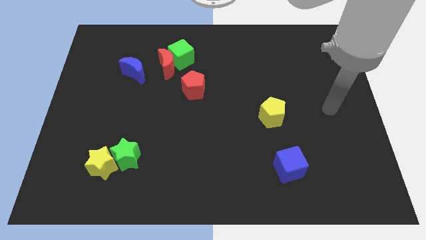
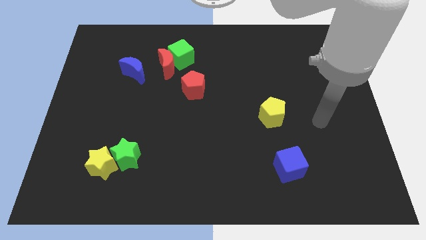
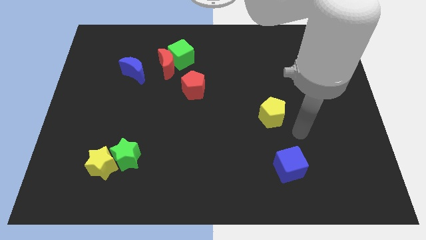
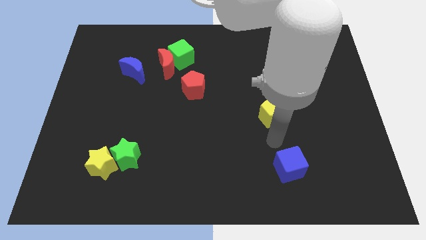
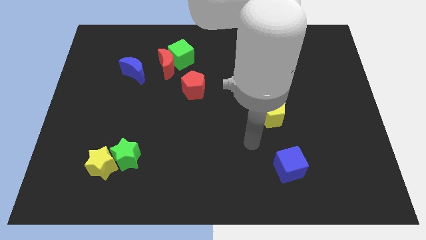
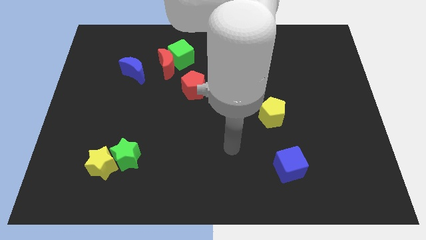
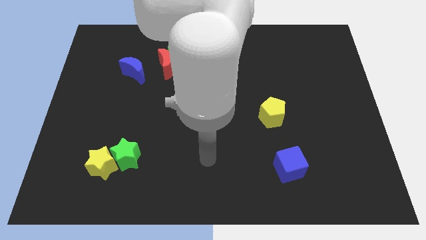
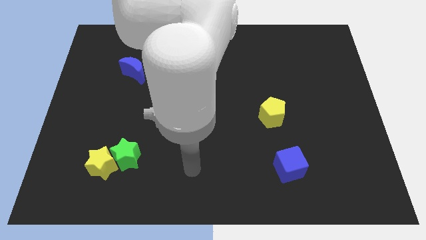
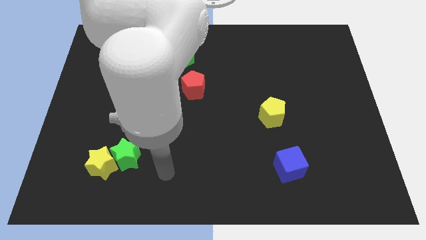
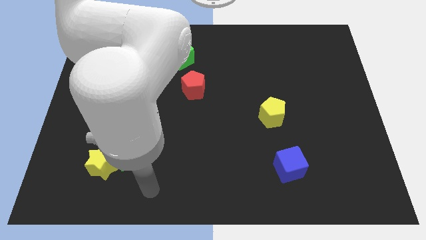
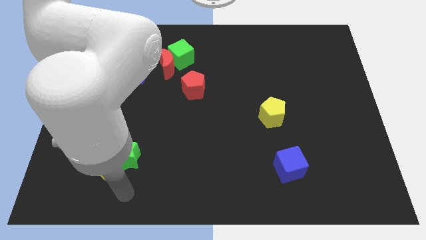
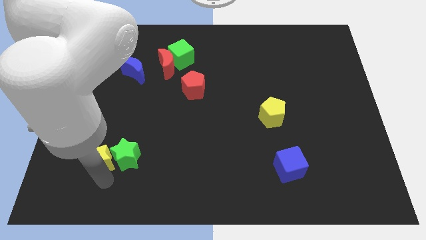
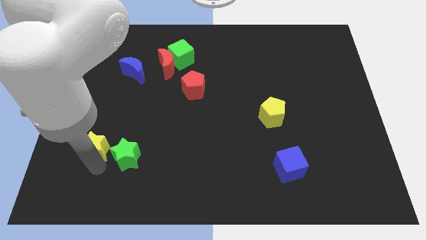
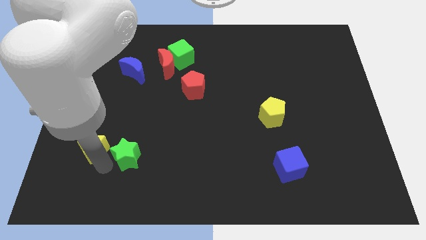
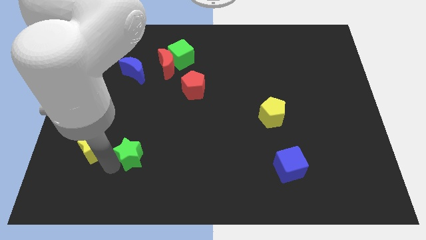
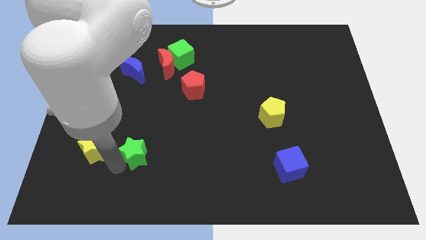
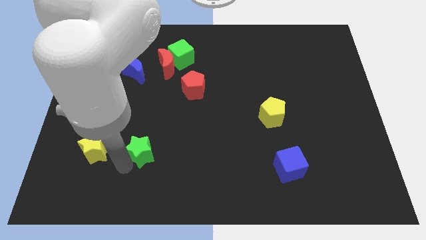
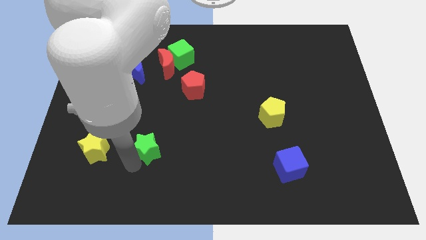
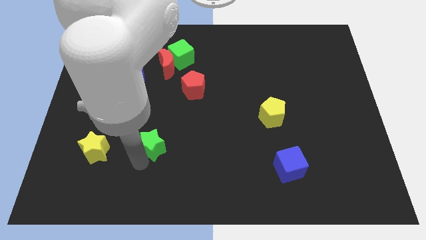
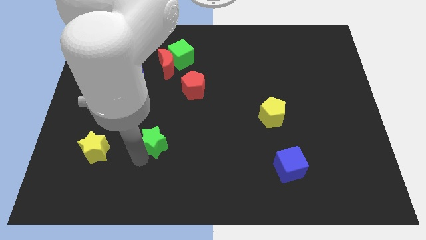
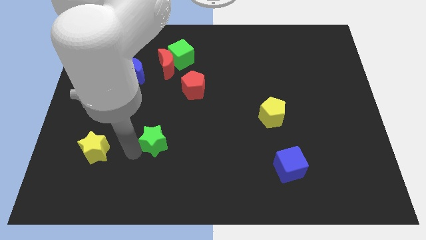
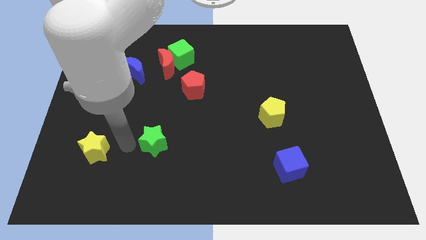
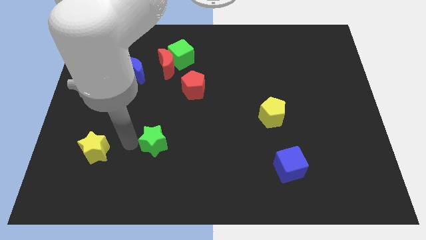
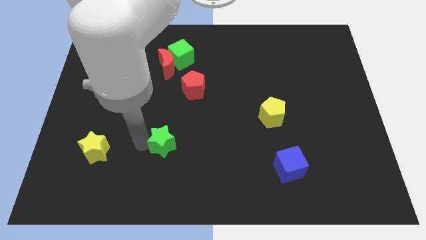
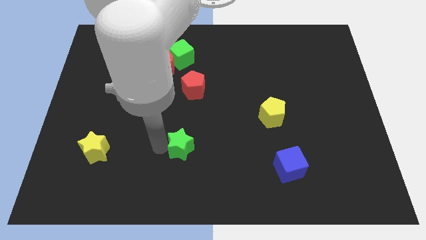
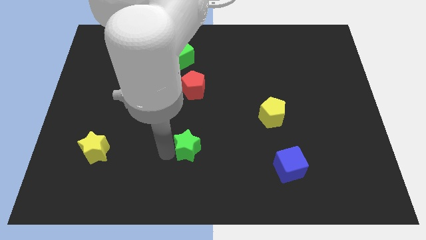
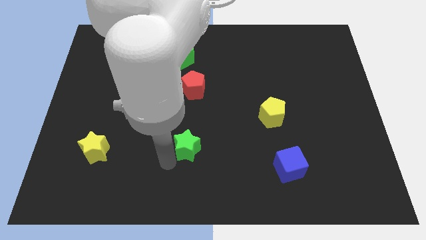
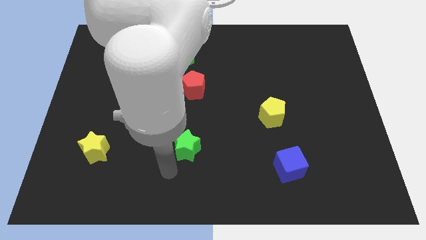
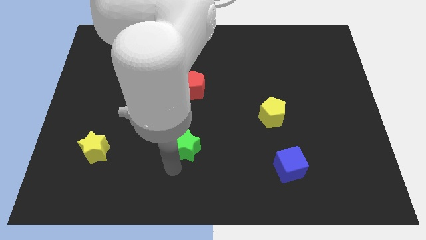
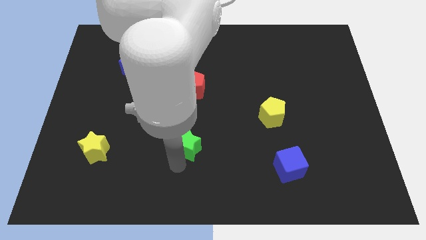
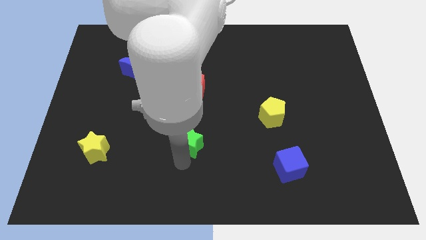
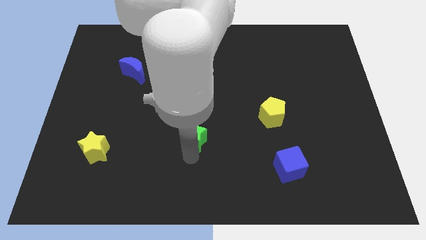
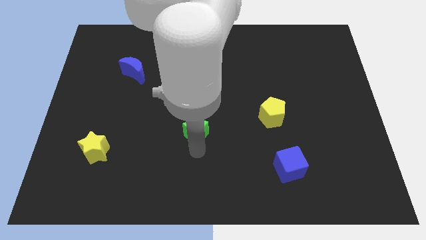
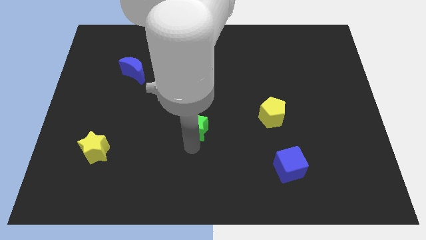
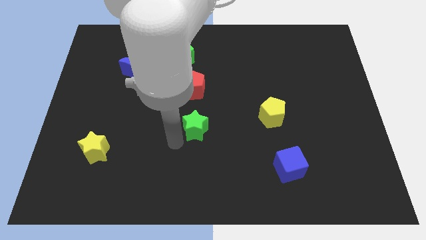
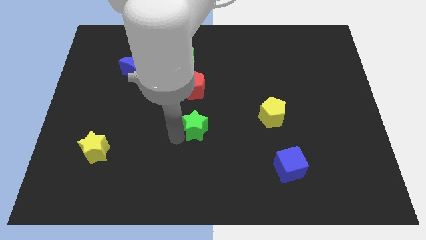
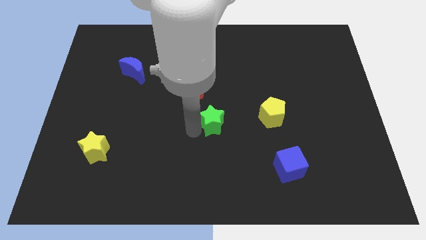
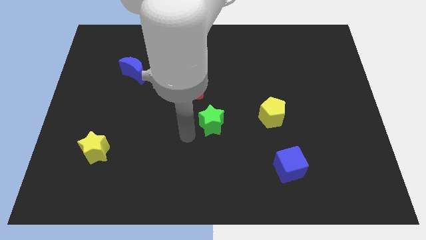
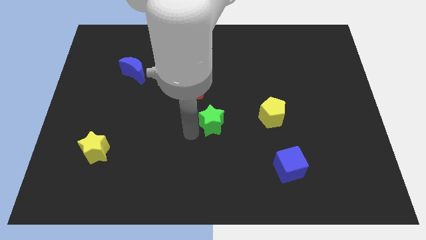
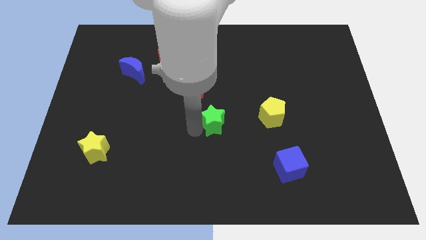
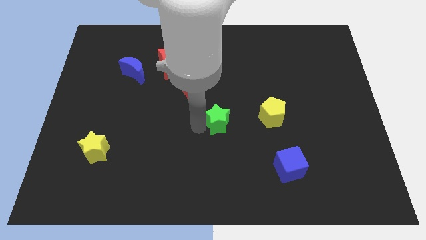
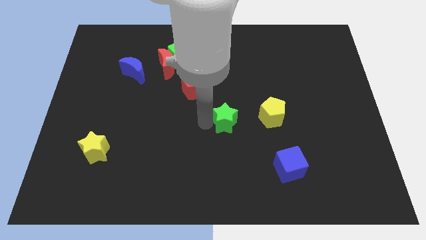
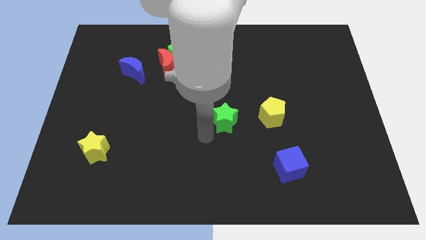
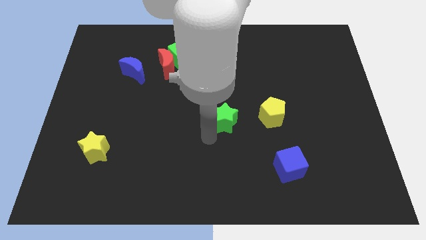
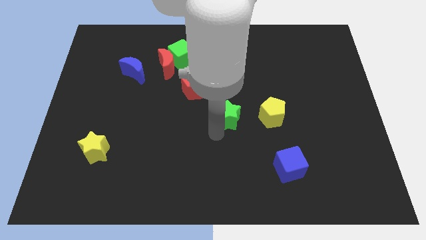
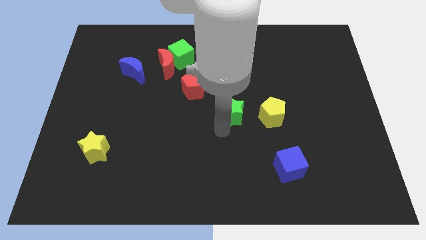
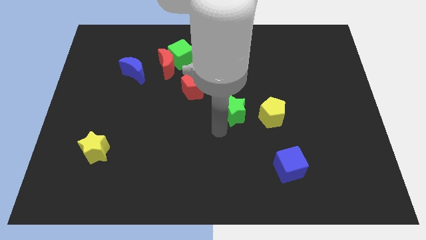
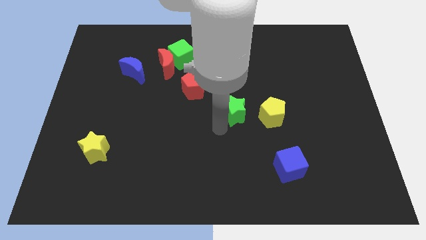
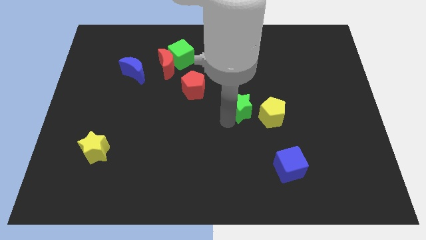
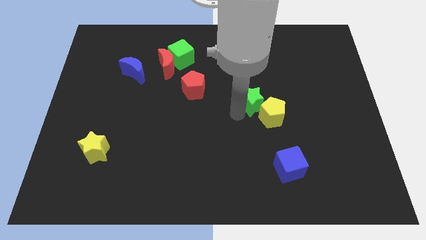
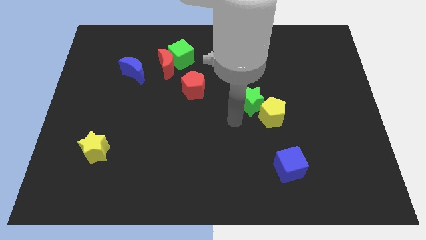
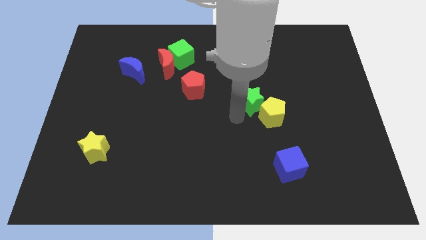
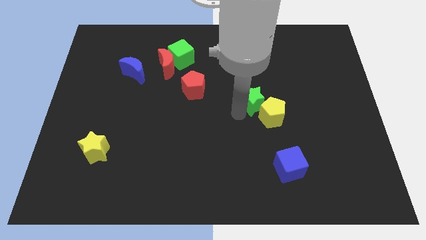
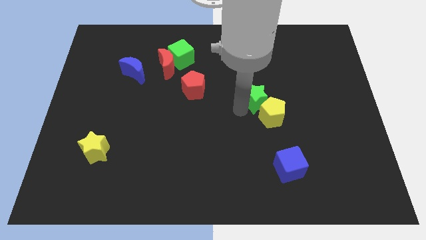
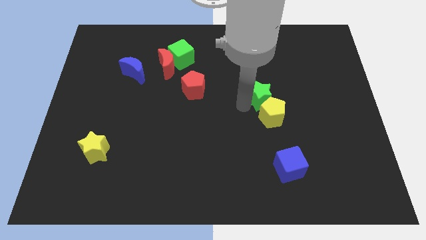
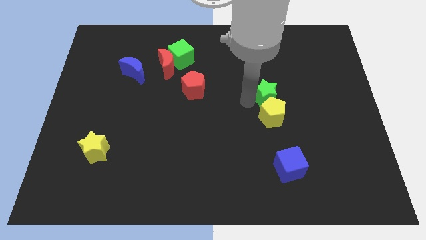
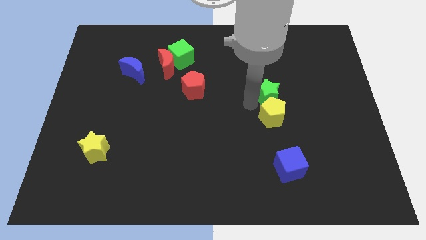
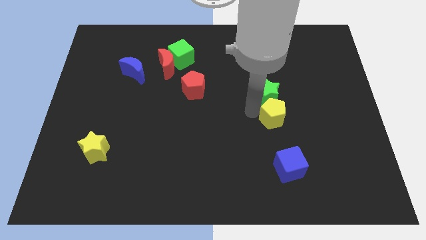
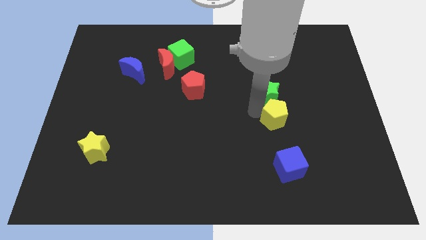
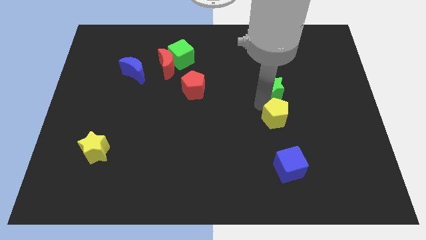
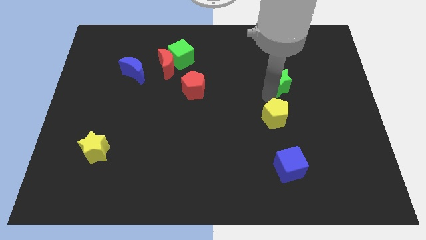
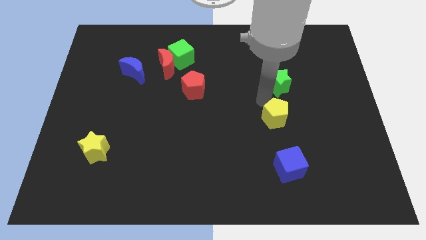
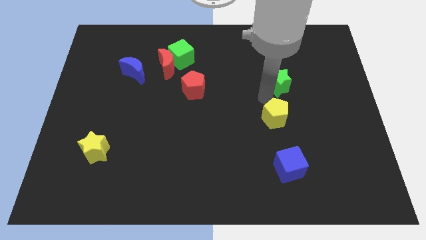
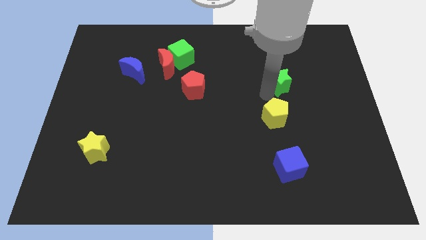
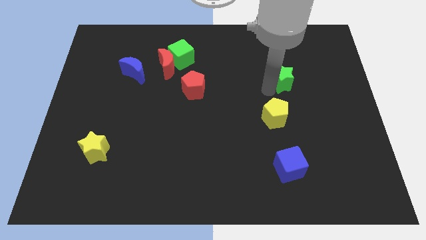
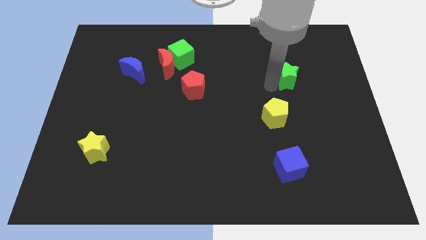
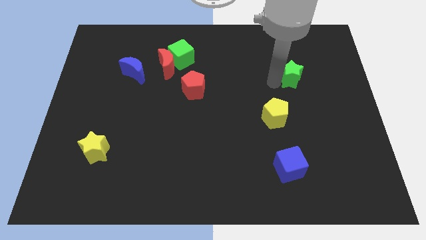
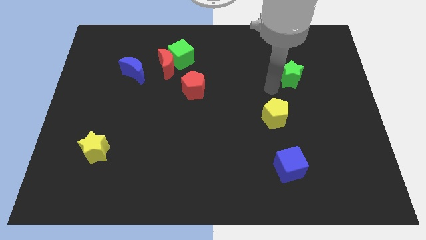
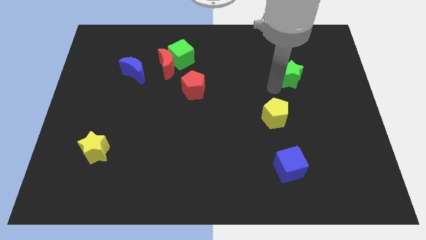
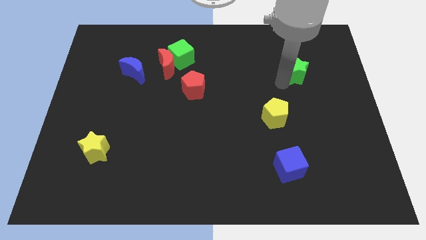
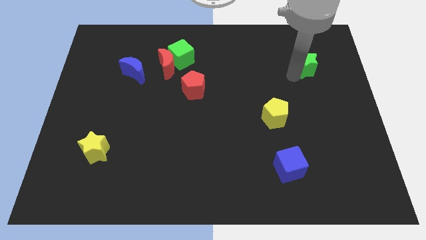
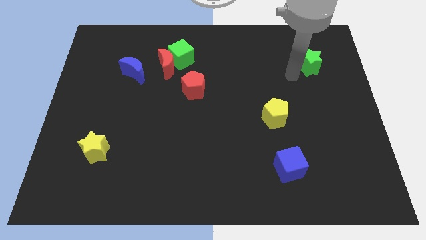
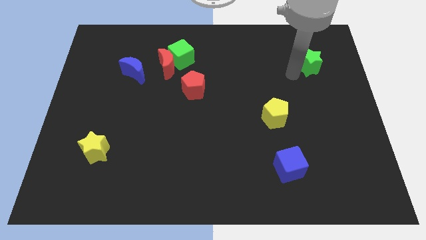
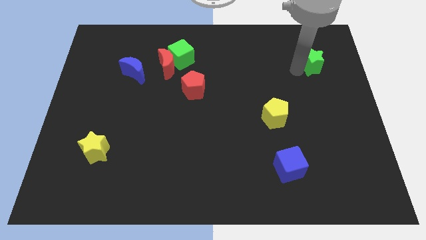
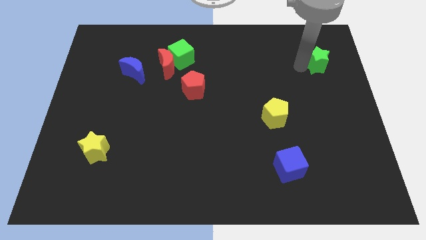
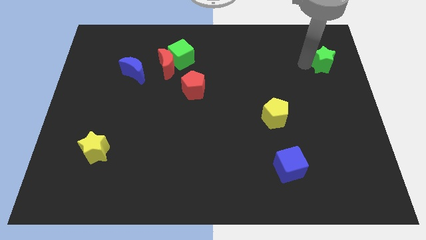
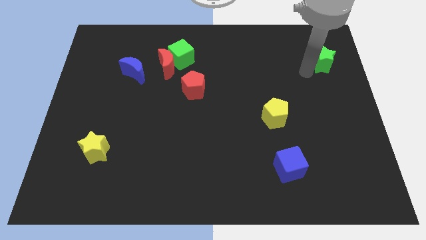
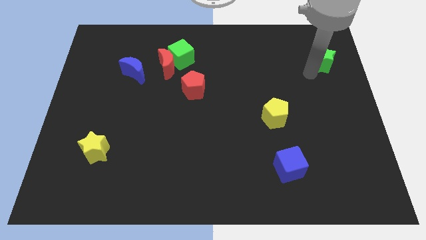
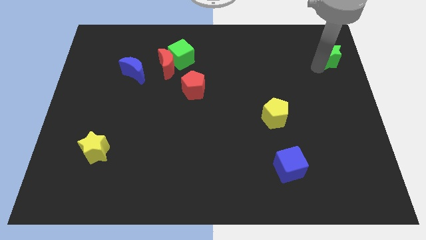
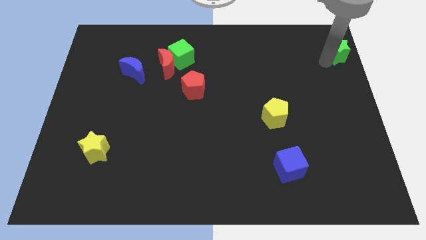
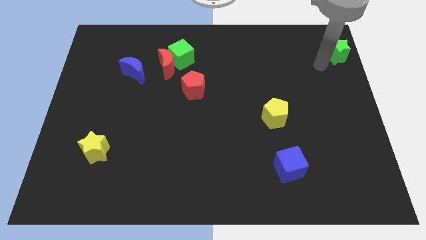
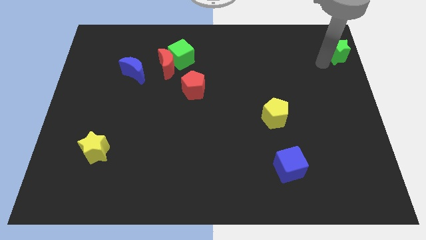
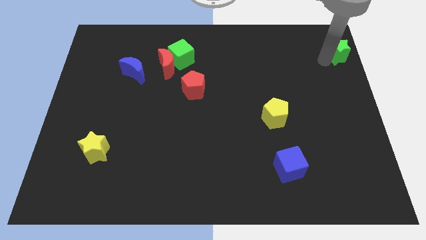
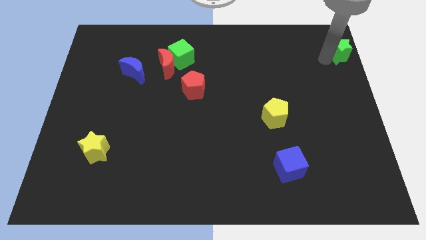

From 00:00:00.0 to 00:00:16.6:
slide the green star to the top right of the board
